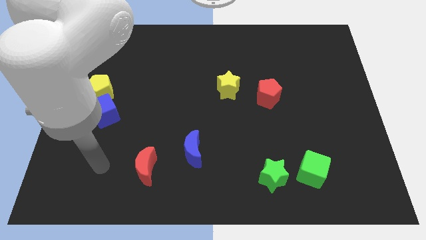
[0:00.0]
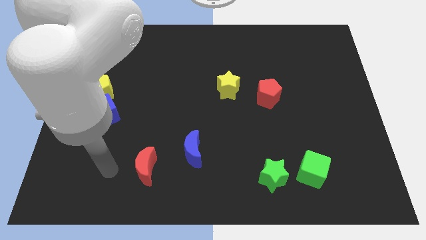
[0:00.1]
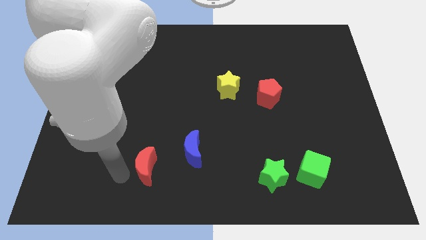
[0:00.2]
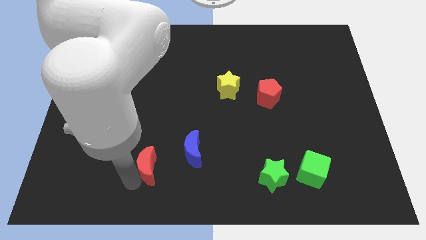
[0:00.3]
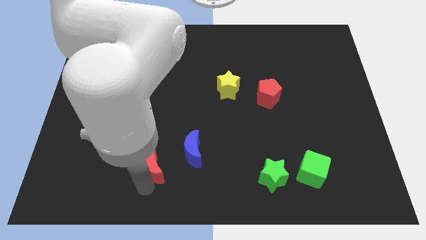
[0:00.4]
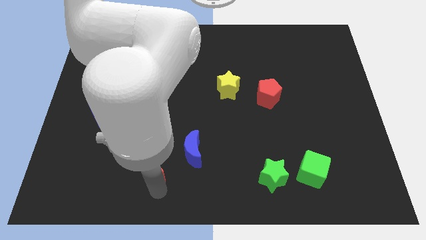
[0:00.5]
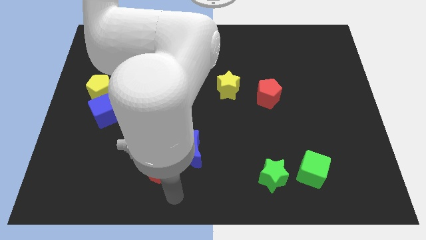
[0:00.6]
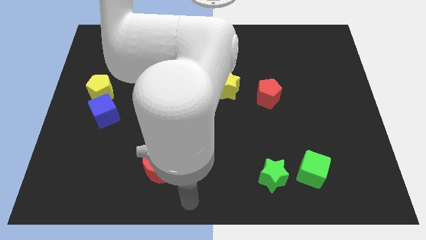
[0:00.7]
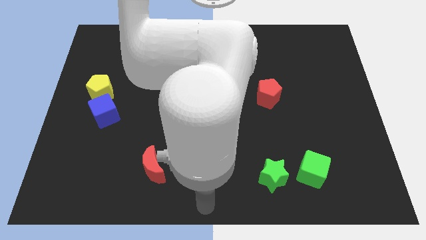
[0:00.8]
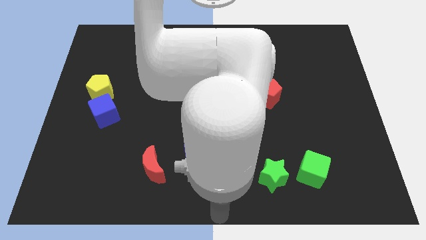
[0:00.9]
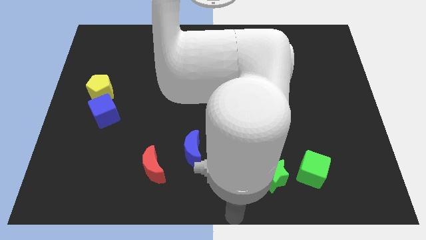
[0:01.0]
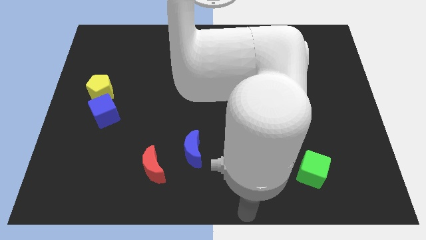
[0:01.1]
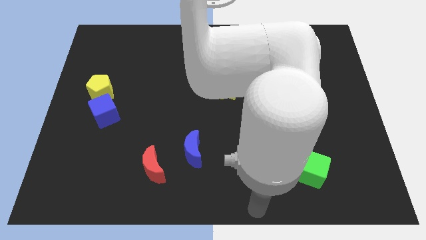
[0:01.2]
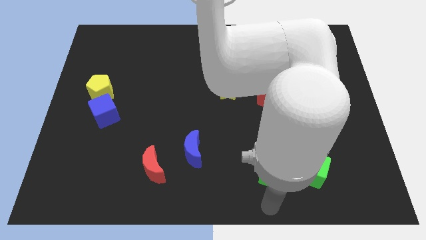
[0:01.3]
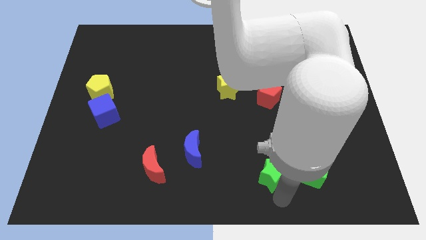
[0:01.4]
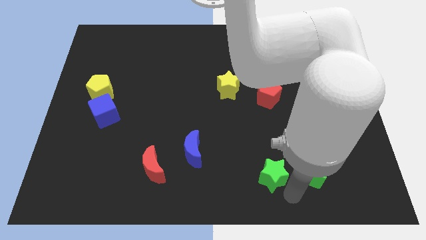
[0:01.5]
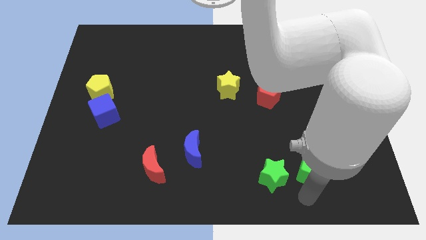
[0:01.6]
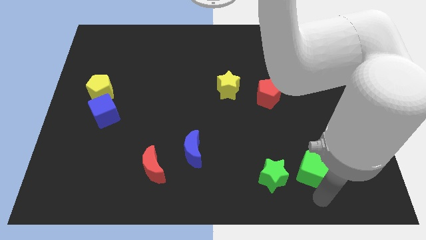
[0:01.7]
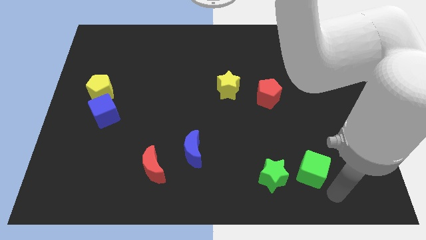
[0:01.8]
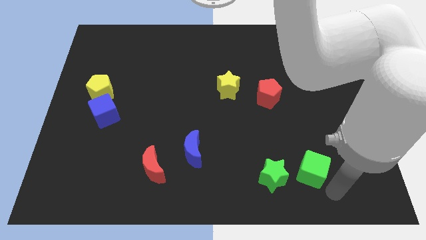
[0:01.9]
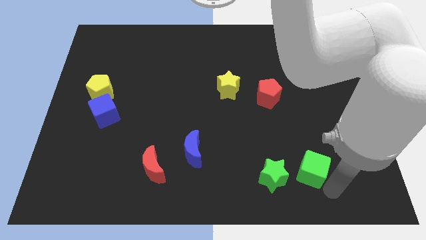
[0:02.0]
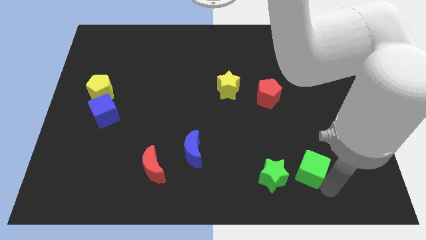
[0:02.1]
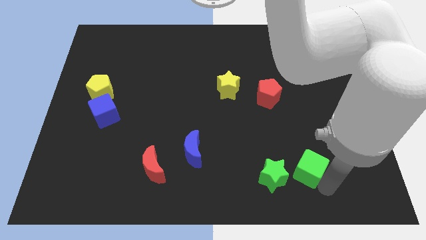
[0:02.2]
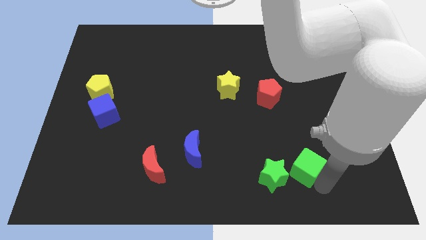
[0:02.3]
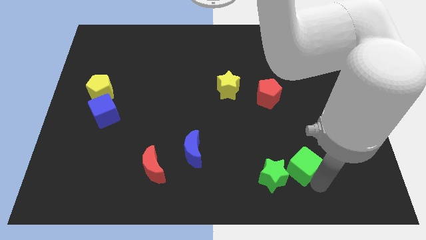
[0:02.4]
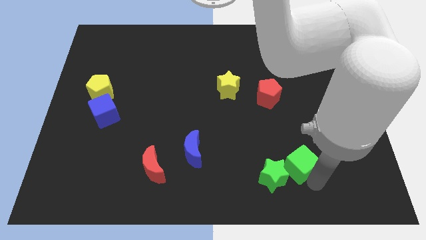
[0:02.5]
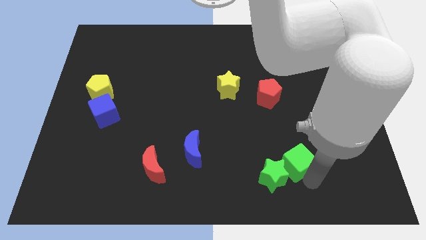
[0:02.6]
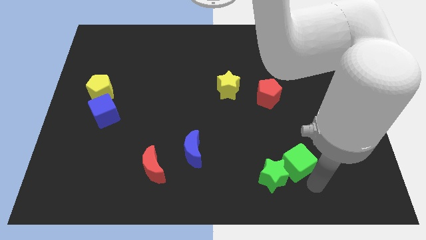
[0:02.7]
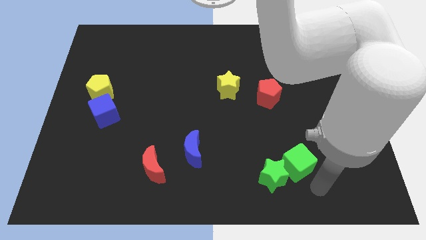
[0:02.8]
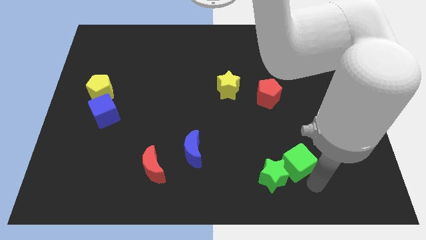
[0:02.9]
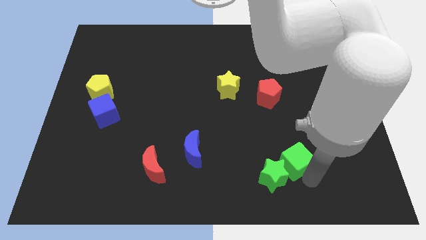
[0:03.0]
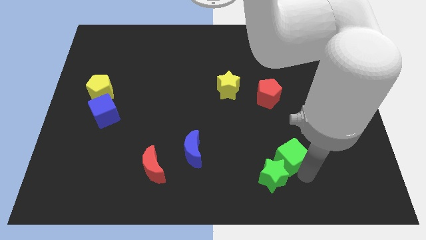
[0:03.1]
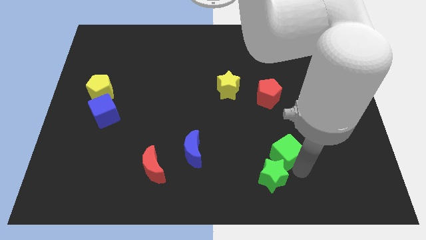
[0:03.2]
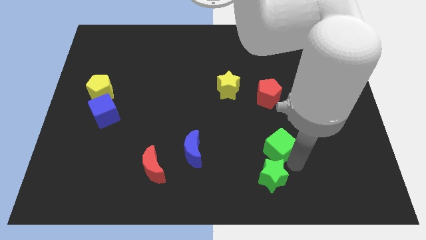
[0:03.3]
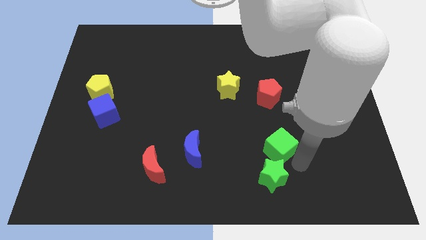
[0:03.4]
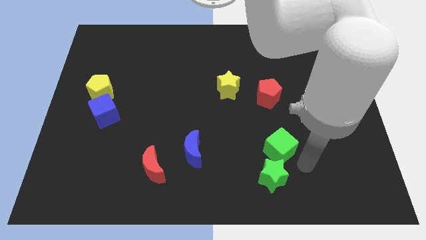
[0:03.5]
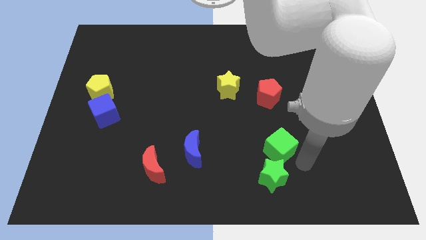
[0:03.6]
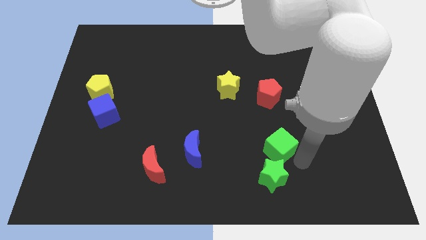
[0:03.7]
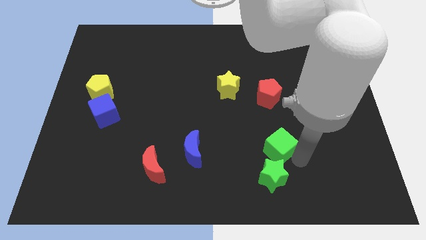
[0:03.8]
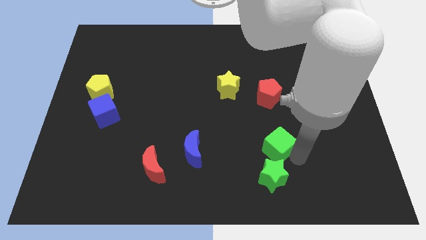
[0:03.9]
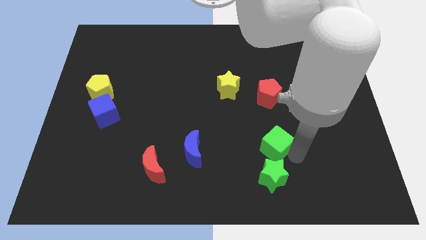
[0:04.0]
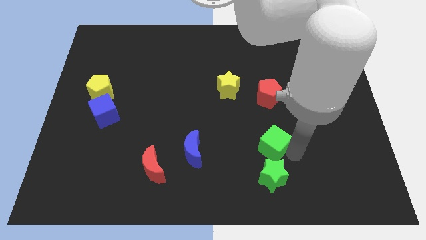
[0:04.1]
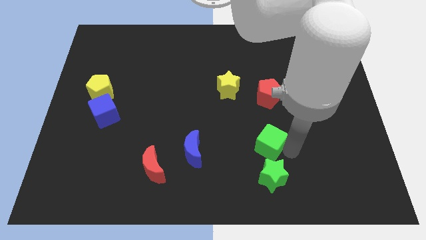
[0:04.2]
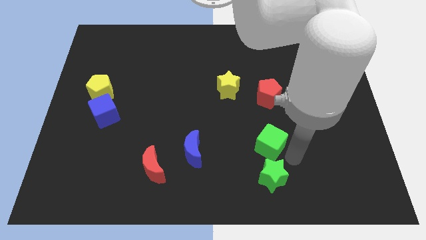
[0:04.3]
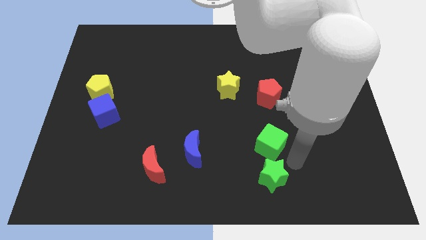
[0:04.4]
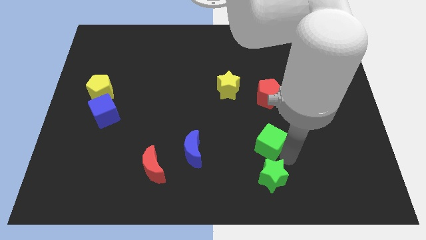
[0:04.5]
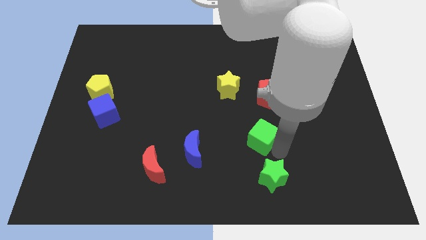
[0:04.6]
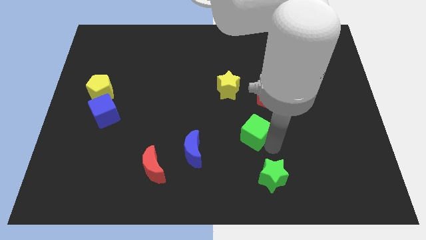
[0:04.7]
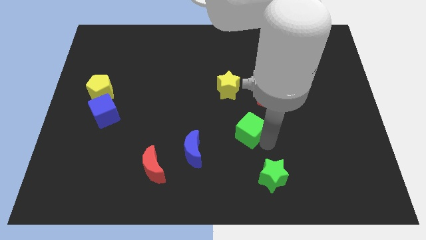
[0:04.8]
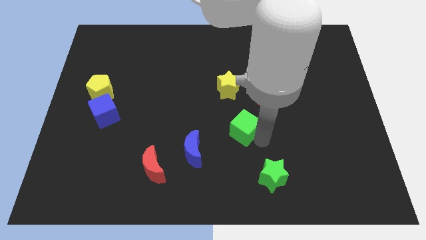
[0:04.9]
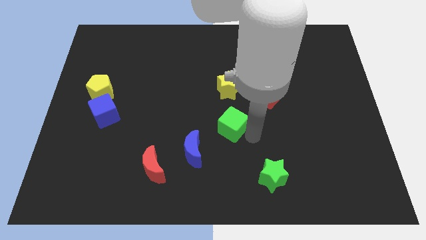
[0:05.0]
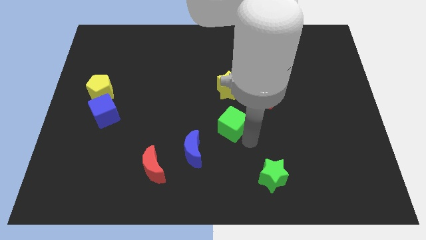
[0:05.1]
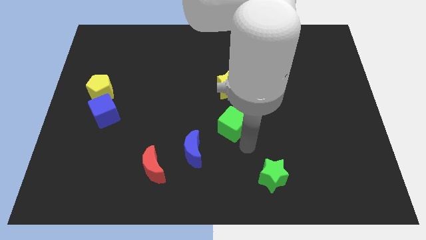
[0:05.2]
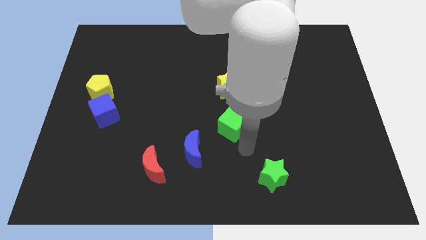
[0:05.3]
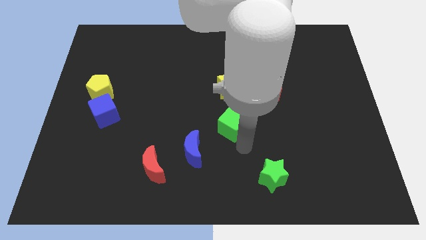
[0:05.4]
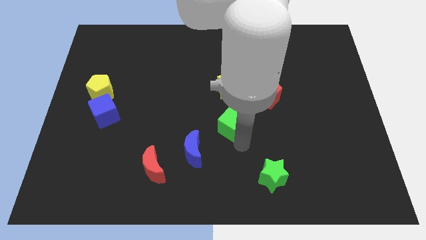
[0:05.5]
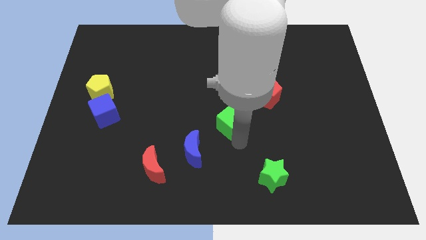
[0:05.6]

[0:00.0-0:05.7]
push the green cube diagonally up and left

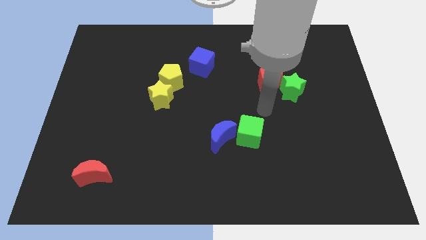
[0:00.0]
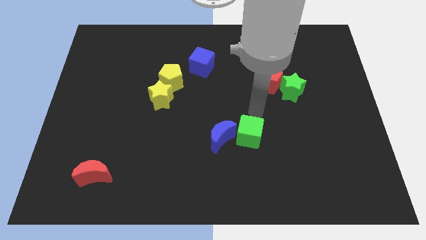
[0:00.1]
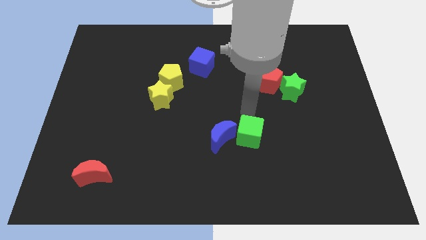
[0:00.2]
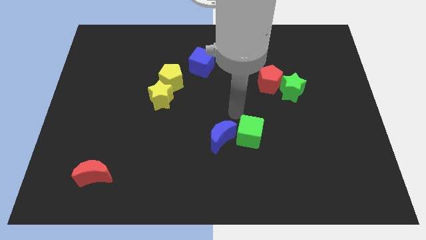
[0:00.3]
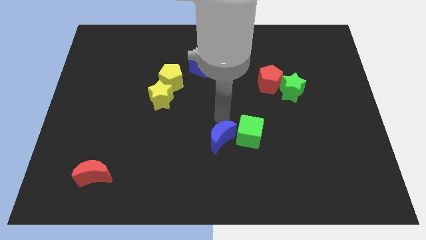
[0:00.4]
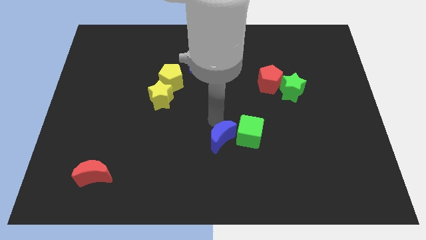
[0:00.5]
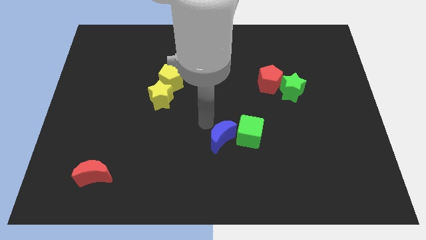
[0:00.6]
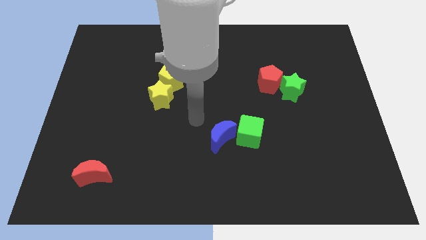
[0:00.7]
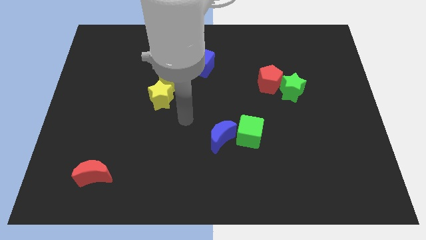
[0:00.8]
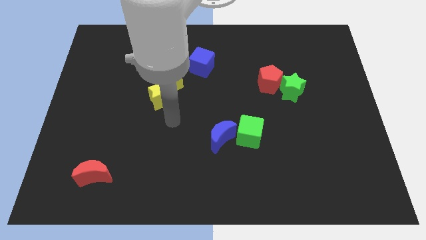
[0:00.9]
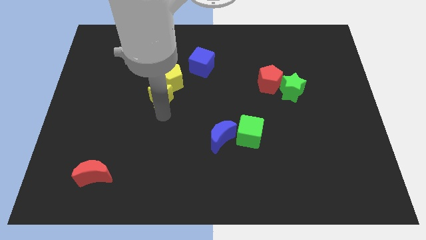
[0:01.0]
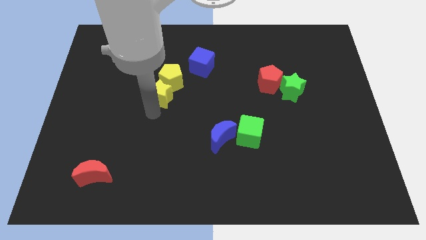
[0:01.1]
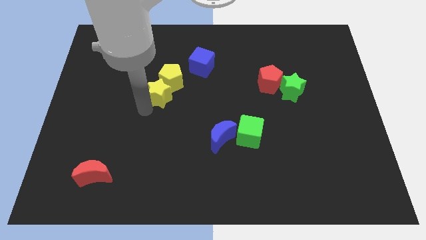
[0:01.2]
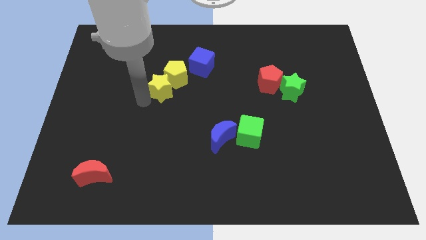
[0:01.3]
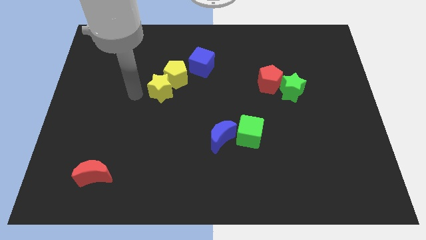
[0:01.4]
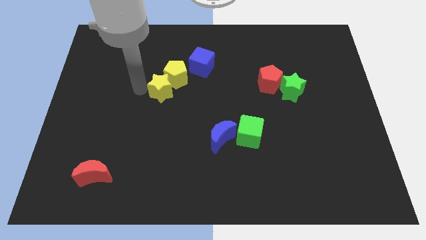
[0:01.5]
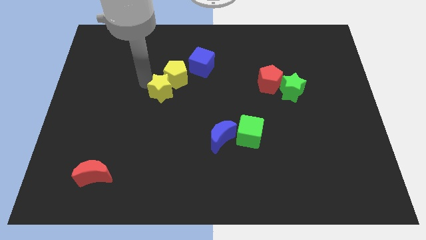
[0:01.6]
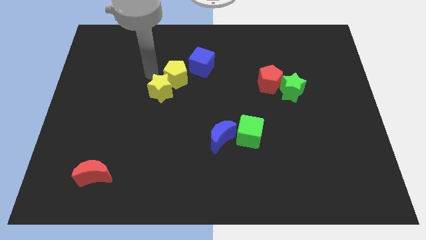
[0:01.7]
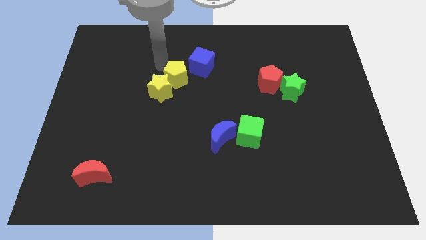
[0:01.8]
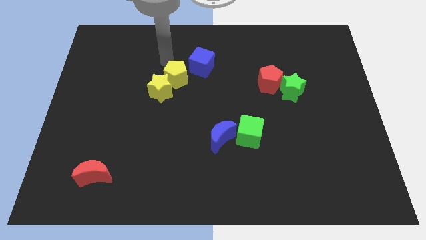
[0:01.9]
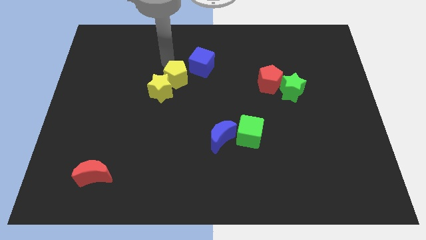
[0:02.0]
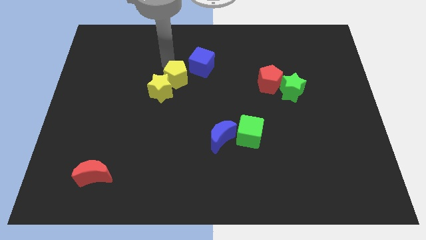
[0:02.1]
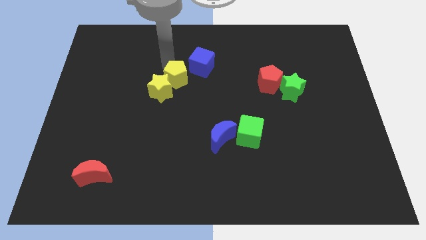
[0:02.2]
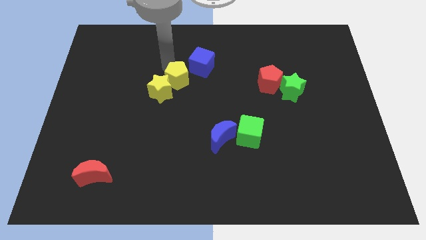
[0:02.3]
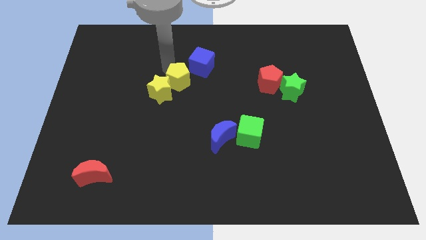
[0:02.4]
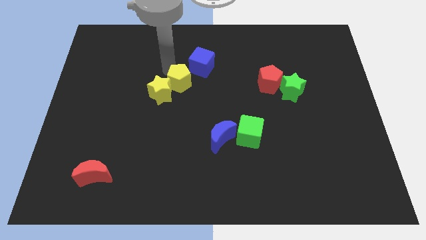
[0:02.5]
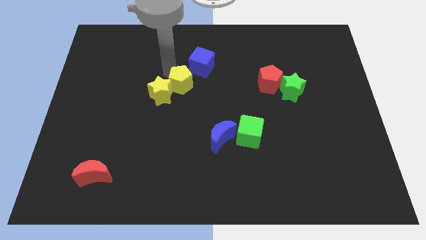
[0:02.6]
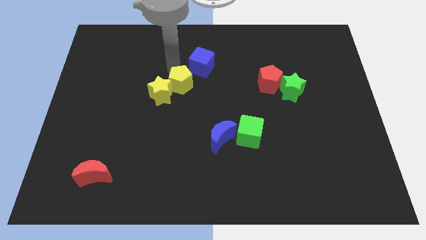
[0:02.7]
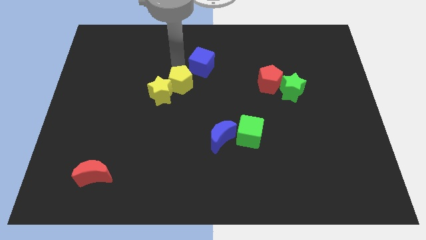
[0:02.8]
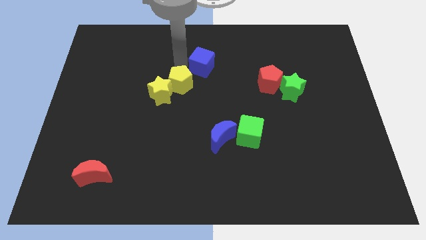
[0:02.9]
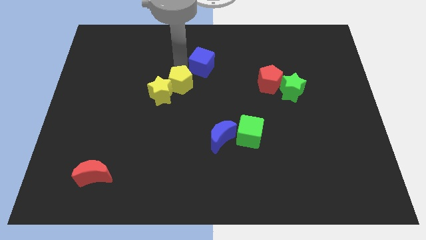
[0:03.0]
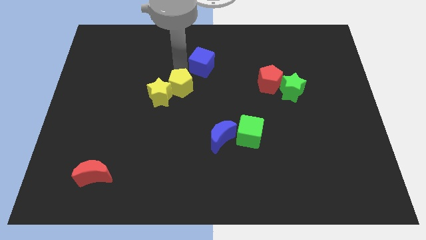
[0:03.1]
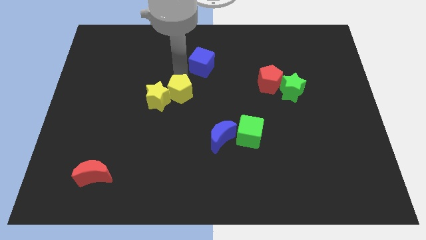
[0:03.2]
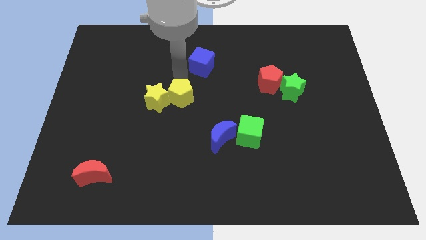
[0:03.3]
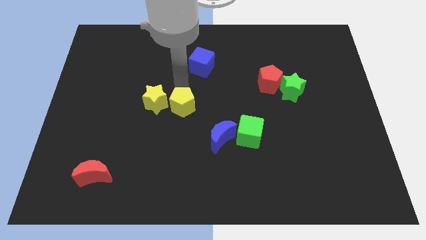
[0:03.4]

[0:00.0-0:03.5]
push the yellow pentagon somewhat down
